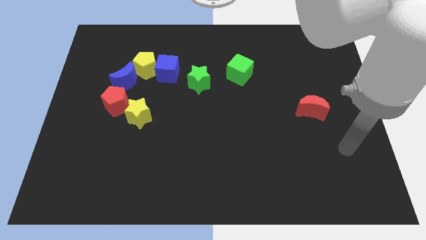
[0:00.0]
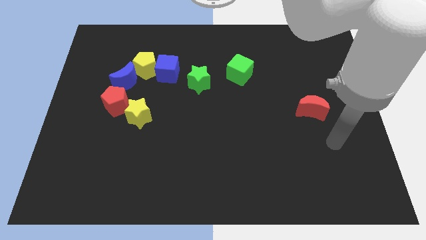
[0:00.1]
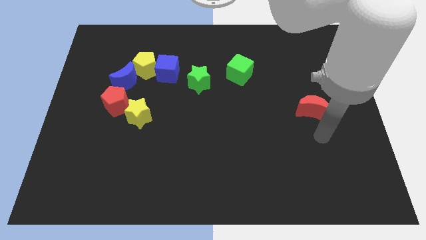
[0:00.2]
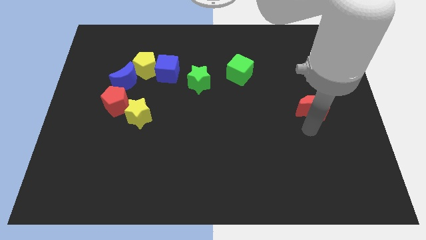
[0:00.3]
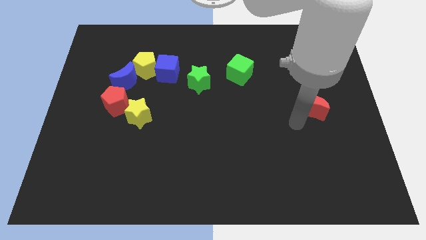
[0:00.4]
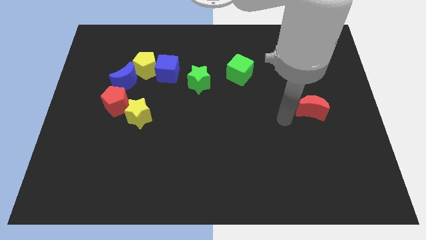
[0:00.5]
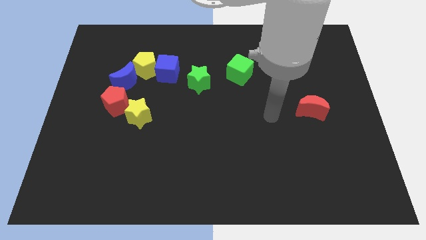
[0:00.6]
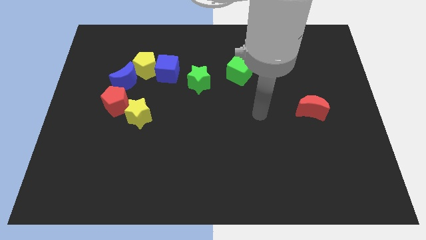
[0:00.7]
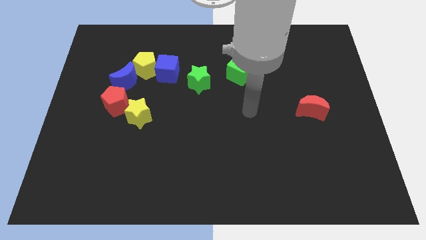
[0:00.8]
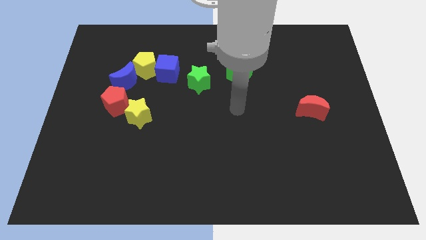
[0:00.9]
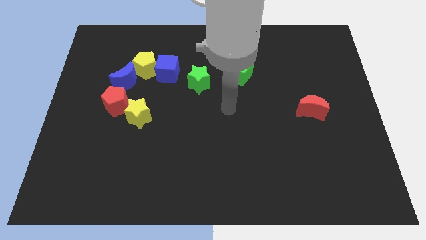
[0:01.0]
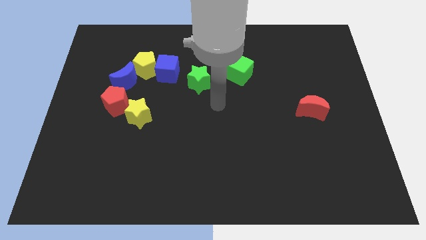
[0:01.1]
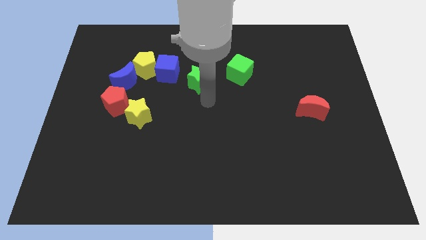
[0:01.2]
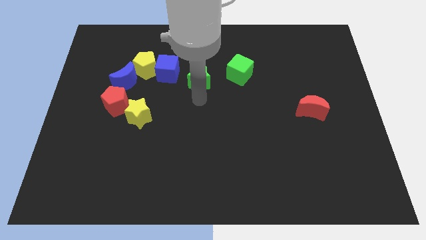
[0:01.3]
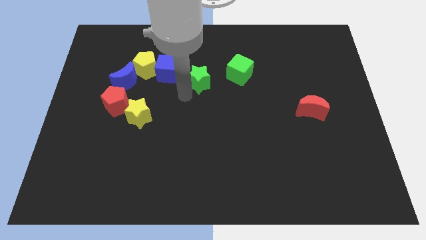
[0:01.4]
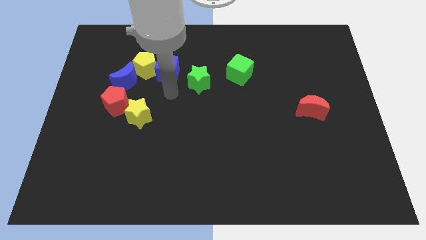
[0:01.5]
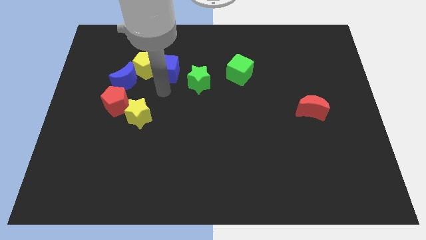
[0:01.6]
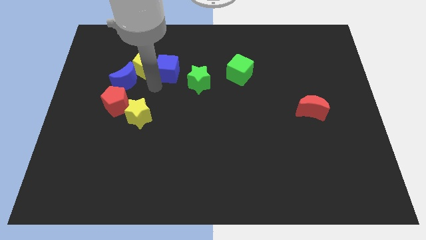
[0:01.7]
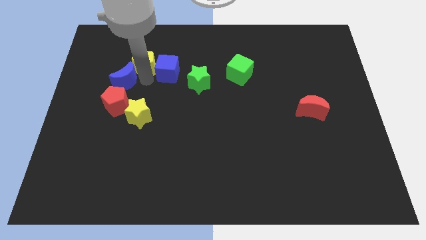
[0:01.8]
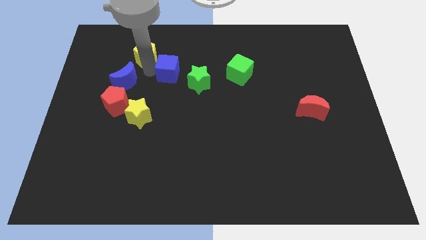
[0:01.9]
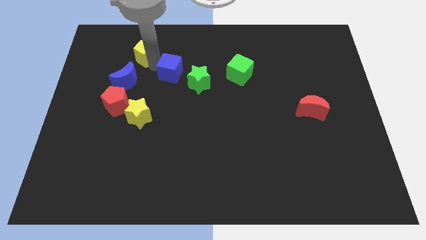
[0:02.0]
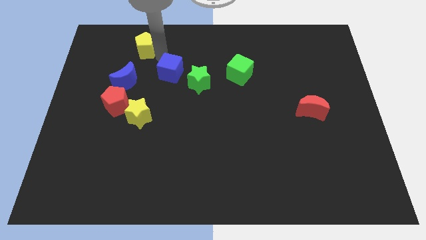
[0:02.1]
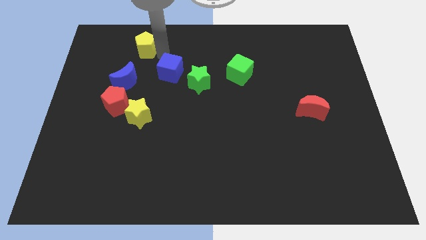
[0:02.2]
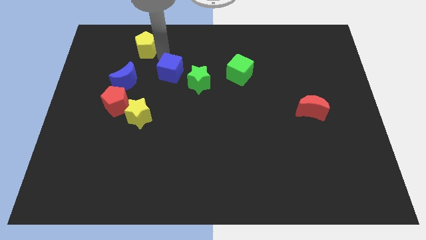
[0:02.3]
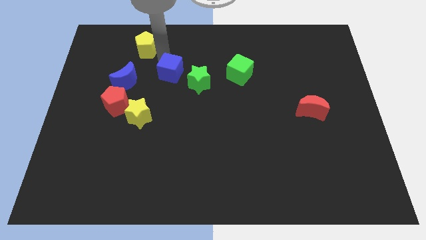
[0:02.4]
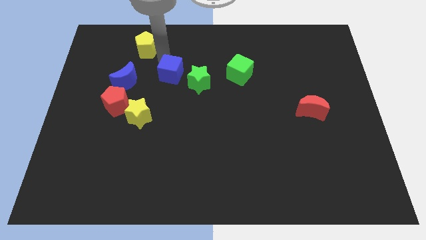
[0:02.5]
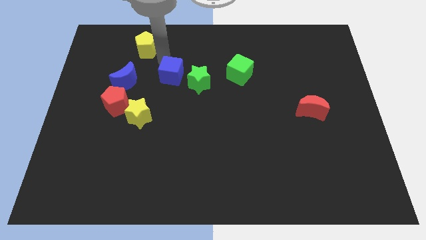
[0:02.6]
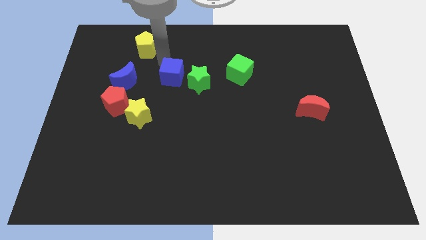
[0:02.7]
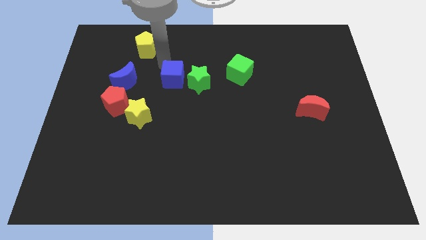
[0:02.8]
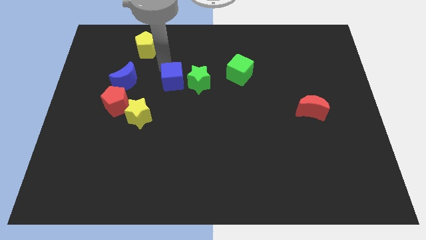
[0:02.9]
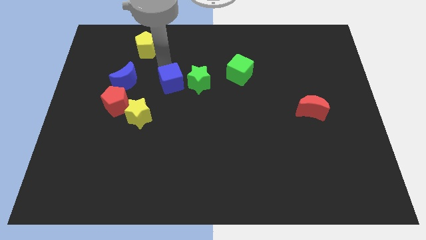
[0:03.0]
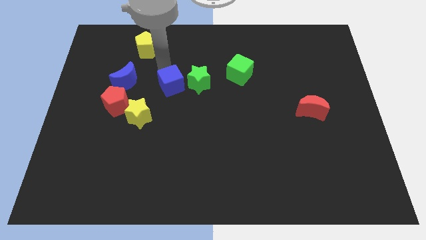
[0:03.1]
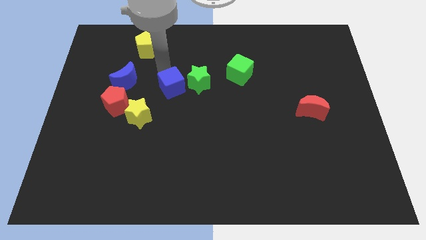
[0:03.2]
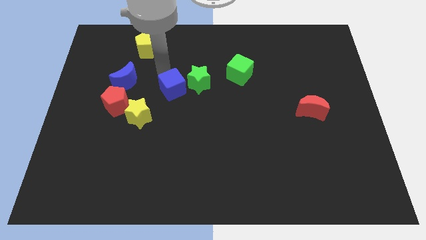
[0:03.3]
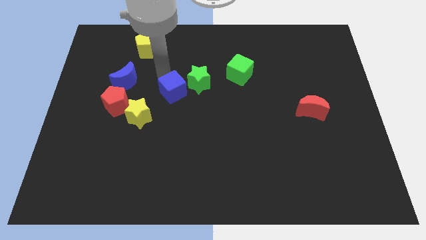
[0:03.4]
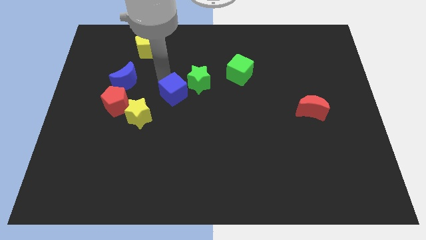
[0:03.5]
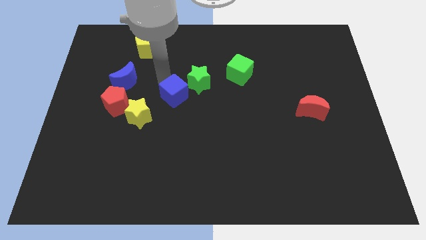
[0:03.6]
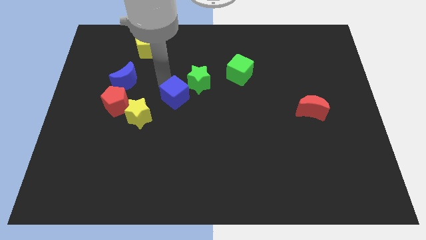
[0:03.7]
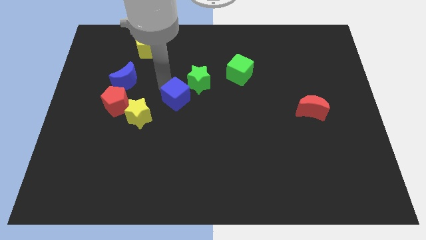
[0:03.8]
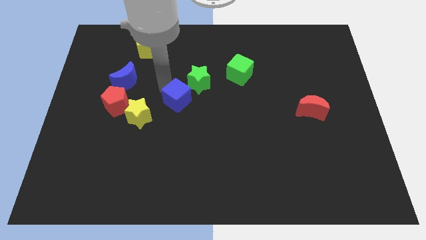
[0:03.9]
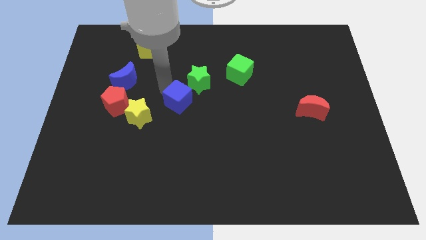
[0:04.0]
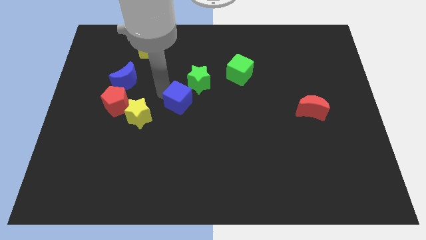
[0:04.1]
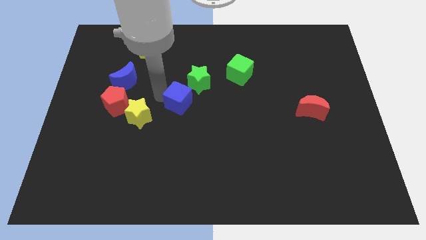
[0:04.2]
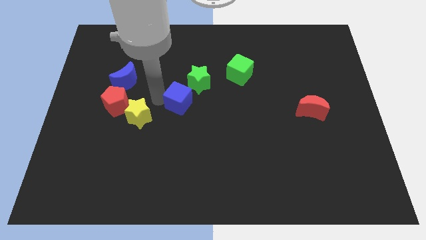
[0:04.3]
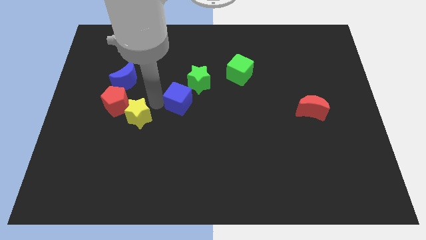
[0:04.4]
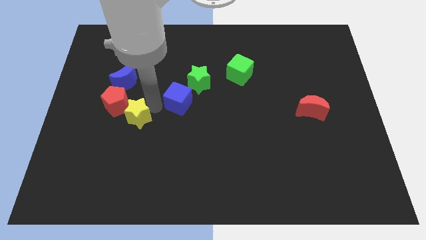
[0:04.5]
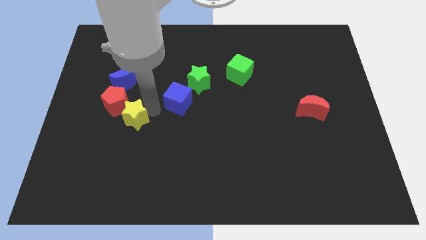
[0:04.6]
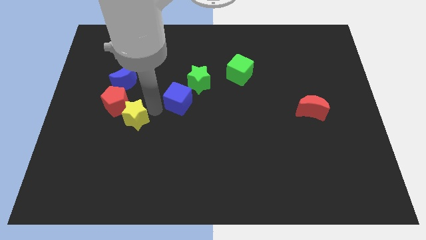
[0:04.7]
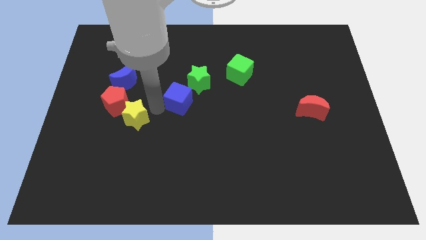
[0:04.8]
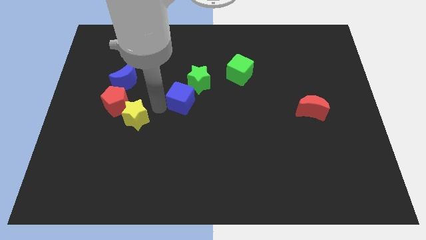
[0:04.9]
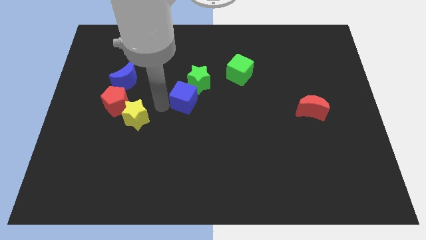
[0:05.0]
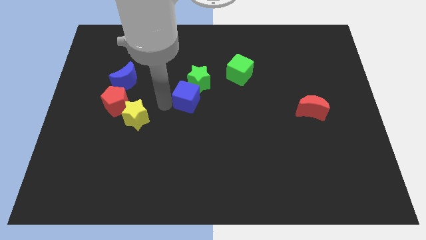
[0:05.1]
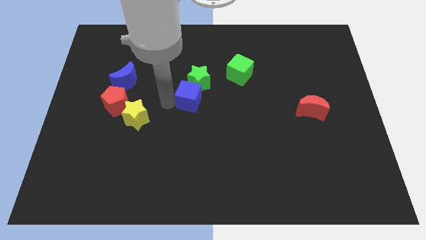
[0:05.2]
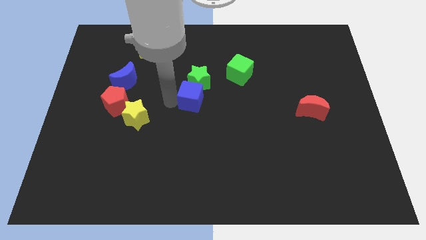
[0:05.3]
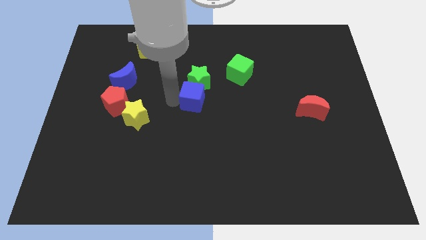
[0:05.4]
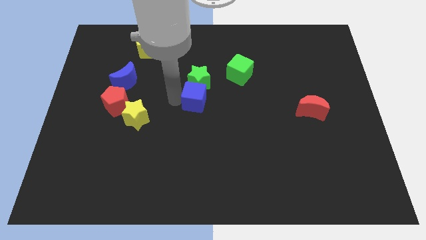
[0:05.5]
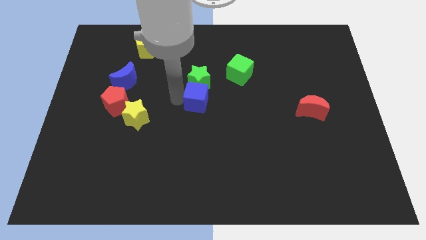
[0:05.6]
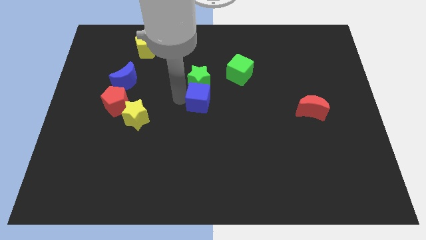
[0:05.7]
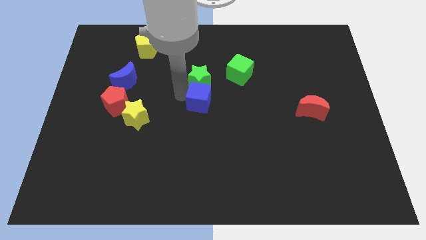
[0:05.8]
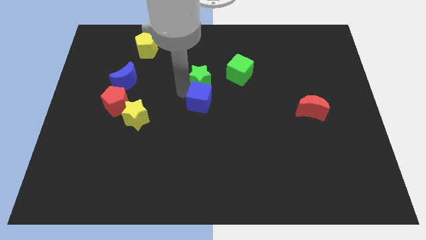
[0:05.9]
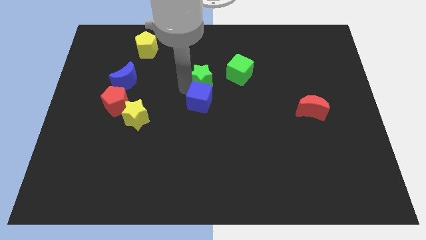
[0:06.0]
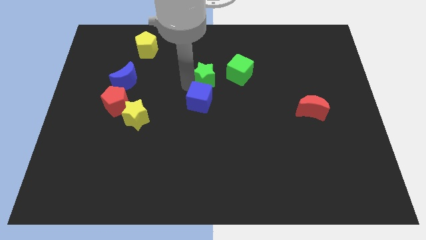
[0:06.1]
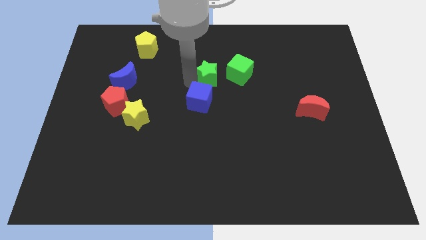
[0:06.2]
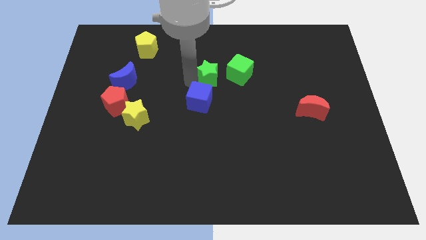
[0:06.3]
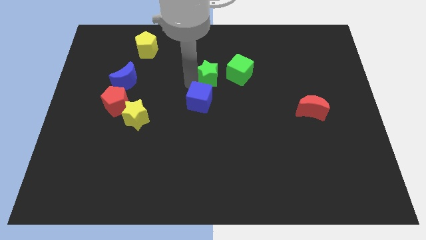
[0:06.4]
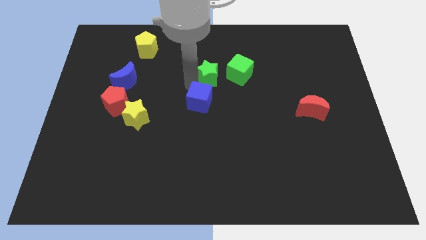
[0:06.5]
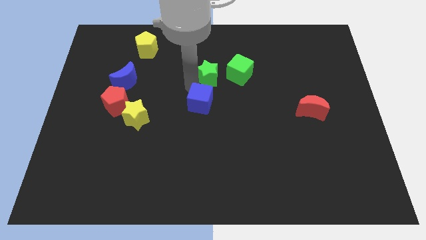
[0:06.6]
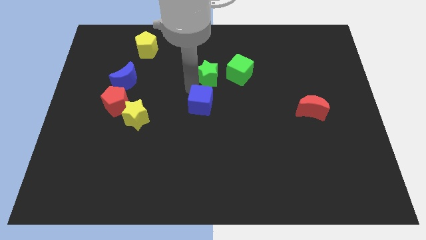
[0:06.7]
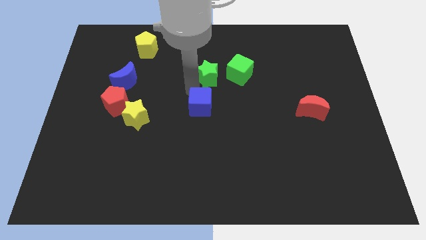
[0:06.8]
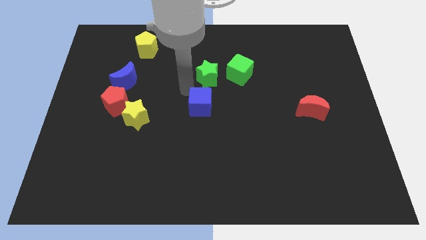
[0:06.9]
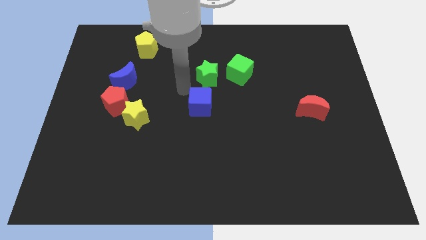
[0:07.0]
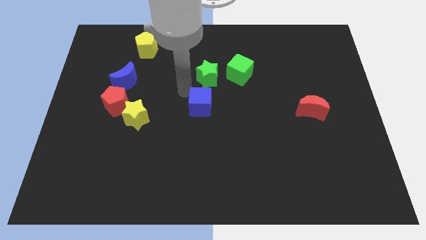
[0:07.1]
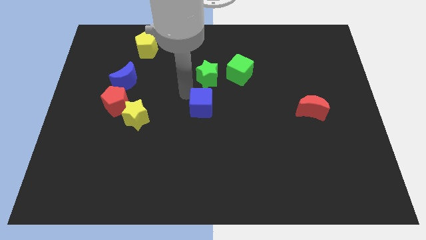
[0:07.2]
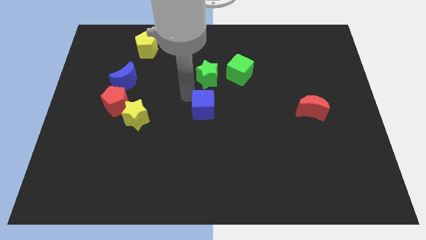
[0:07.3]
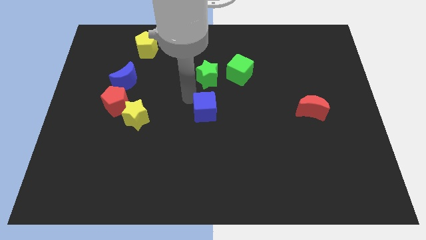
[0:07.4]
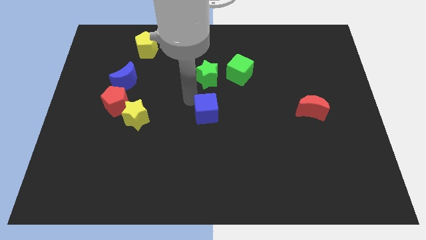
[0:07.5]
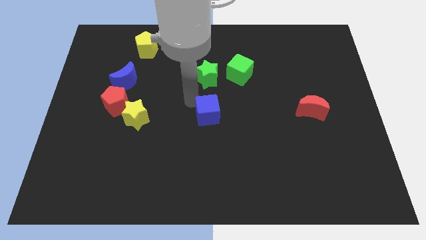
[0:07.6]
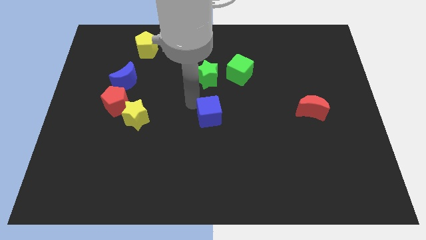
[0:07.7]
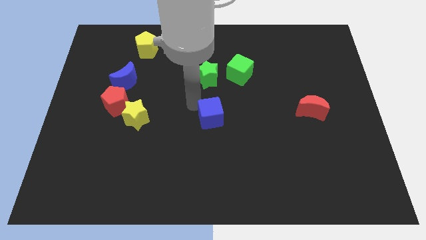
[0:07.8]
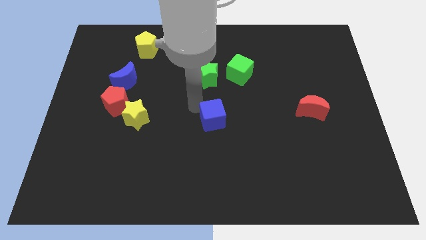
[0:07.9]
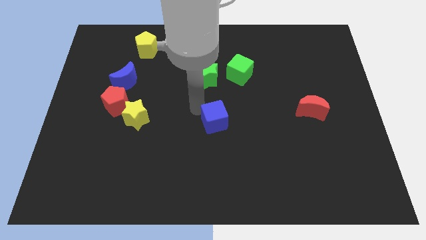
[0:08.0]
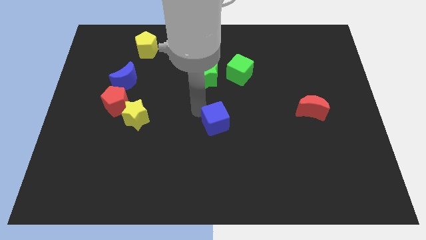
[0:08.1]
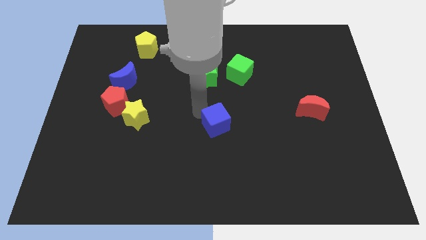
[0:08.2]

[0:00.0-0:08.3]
slide the blue cube downwards and then right

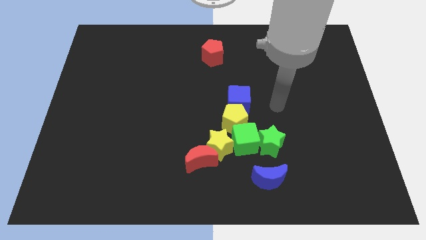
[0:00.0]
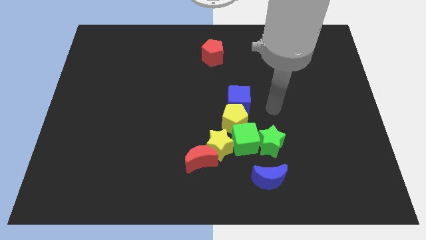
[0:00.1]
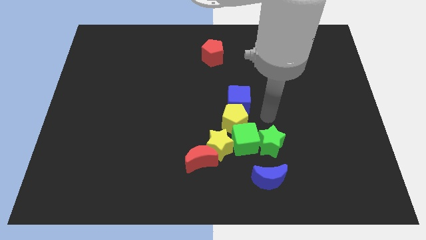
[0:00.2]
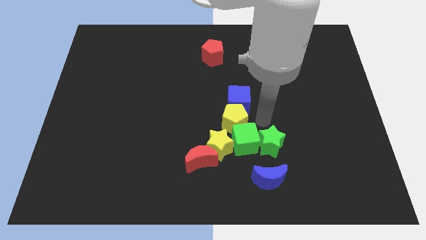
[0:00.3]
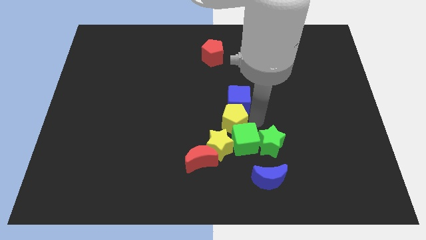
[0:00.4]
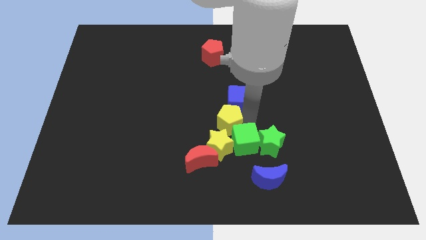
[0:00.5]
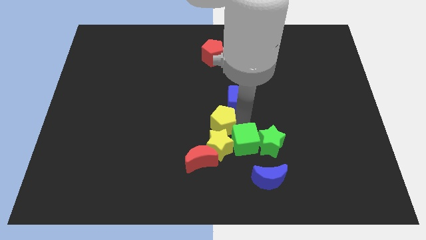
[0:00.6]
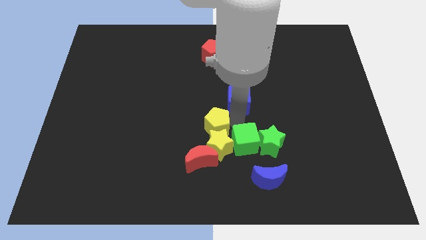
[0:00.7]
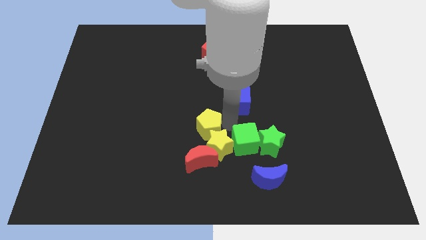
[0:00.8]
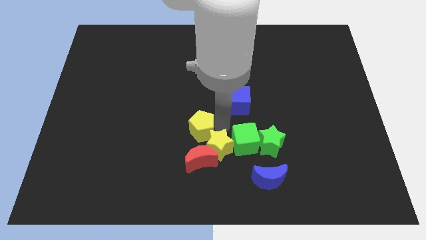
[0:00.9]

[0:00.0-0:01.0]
move the yellow pentagon a little left
